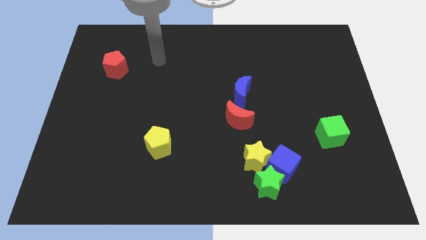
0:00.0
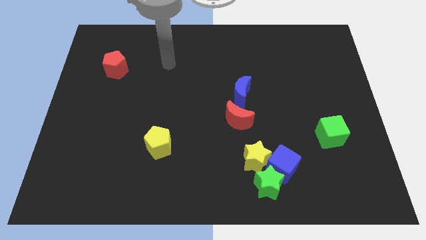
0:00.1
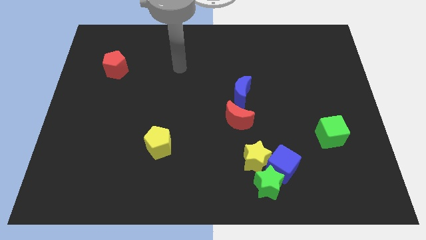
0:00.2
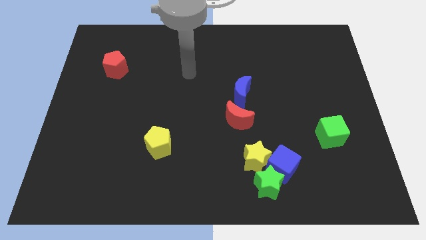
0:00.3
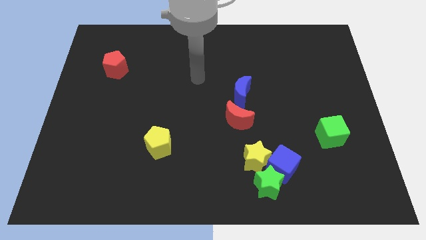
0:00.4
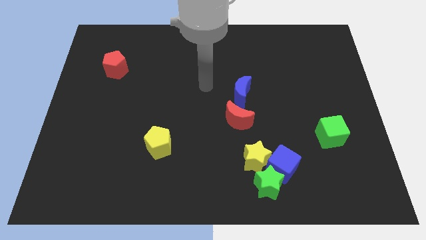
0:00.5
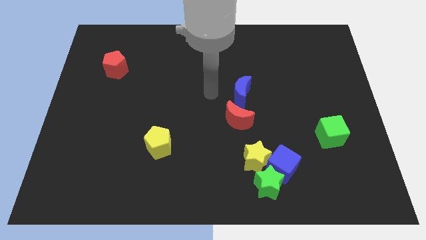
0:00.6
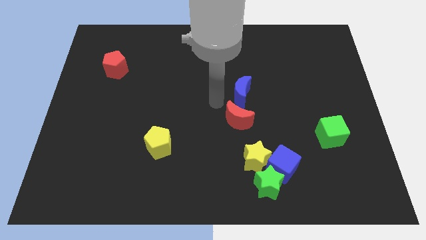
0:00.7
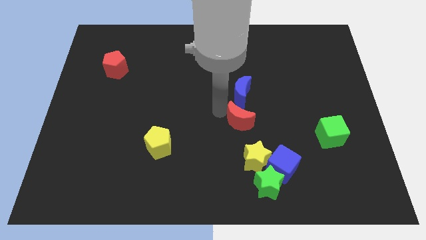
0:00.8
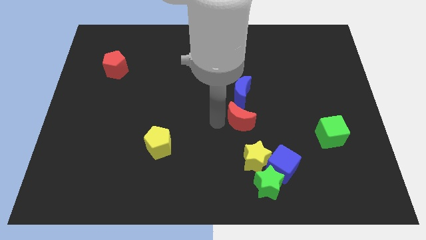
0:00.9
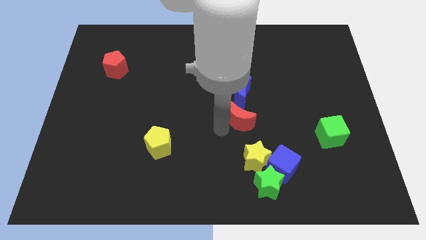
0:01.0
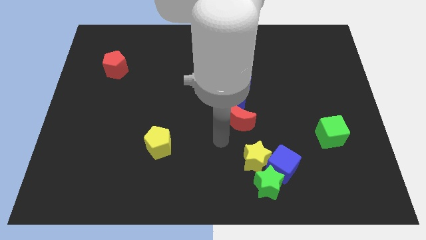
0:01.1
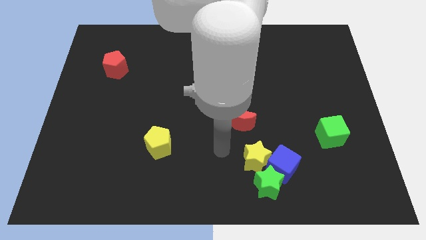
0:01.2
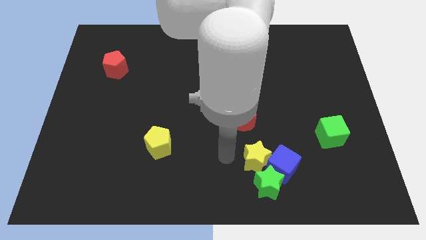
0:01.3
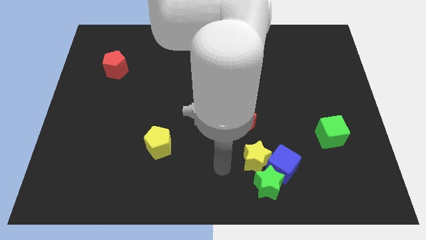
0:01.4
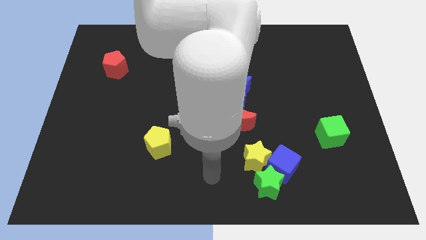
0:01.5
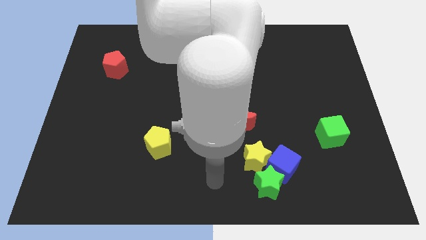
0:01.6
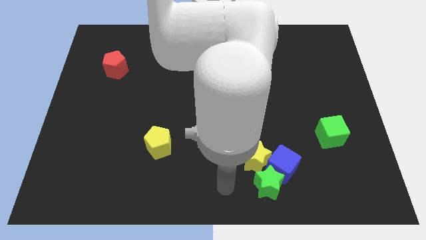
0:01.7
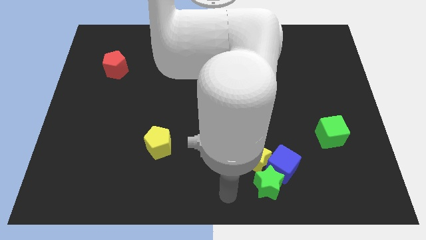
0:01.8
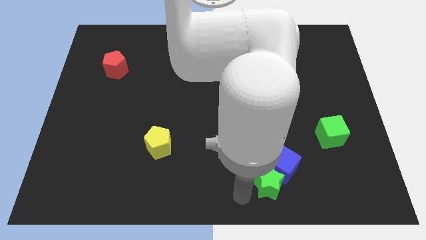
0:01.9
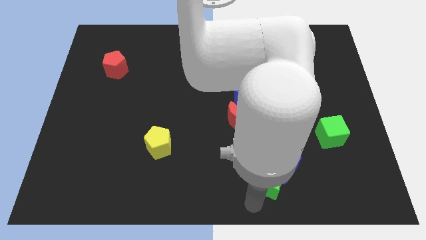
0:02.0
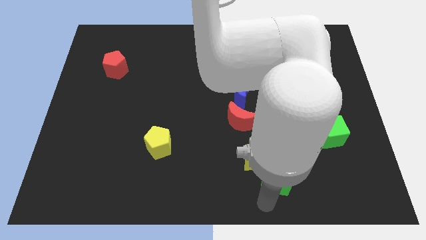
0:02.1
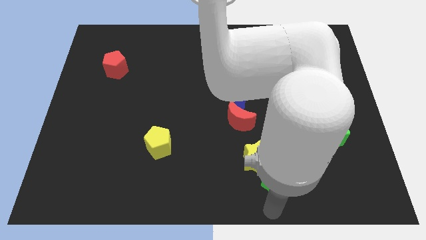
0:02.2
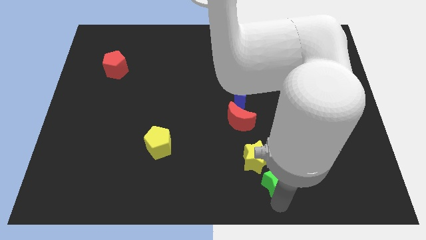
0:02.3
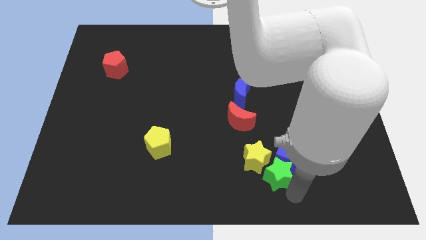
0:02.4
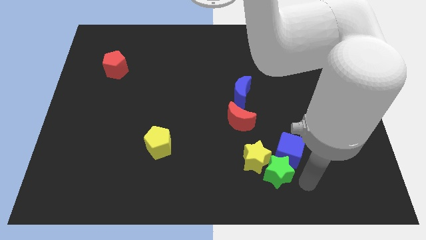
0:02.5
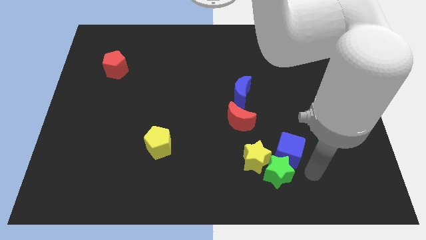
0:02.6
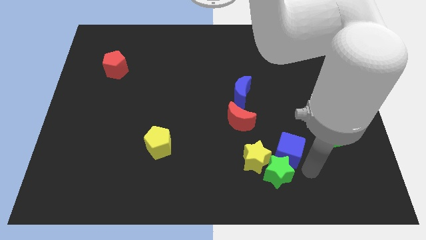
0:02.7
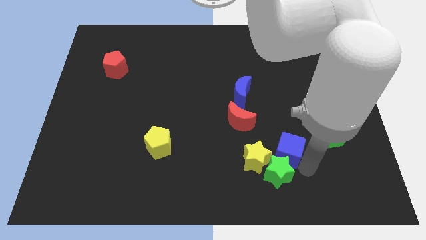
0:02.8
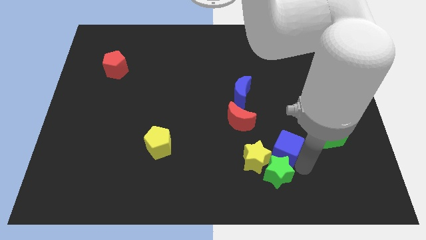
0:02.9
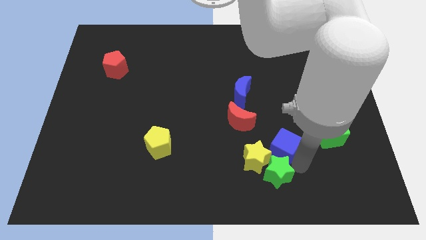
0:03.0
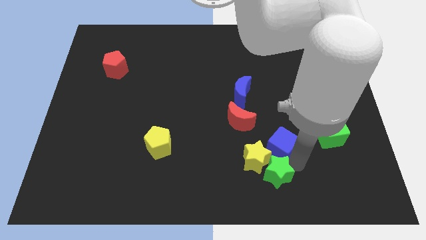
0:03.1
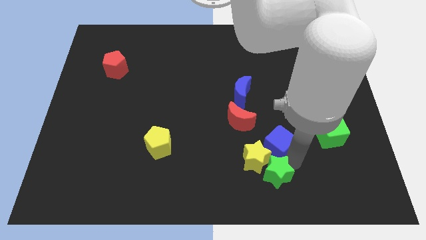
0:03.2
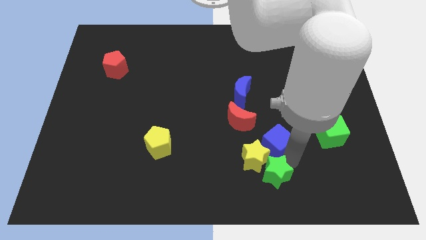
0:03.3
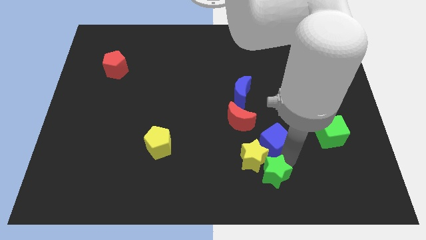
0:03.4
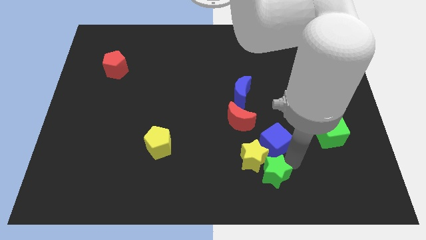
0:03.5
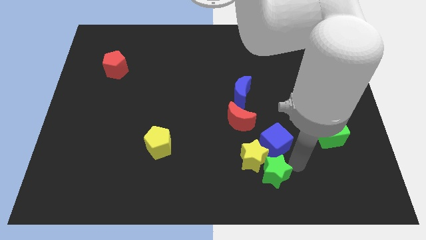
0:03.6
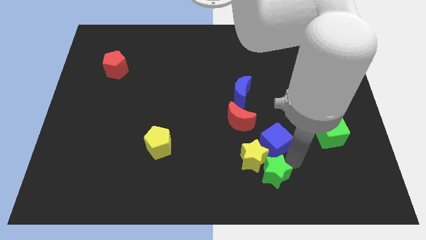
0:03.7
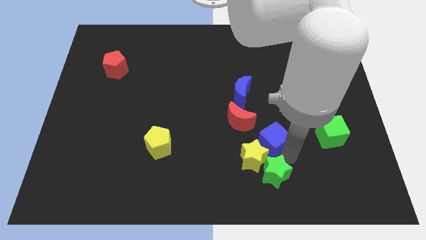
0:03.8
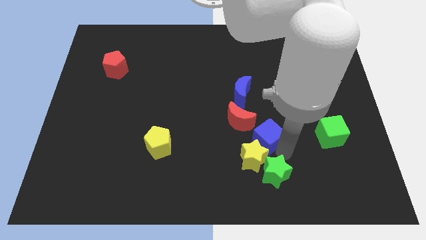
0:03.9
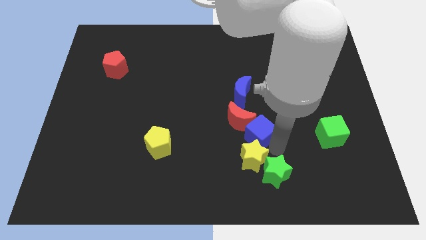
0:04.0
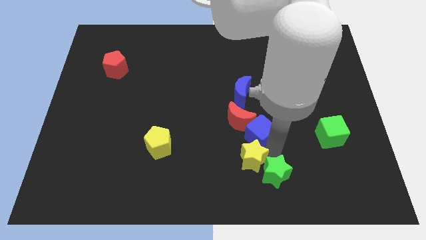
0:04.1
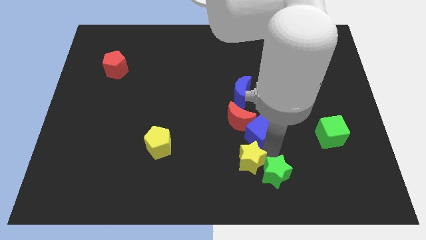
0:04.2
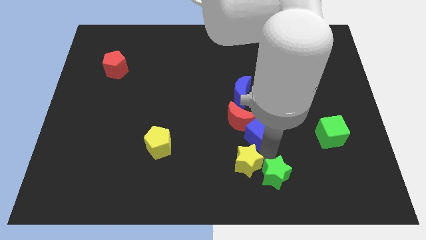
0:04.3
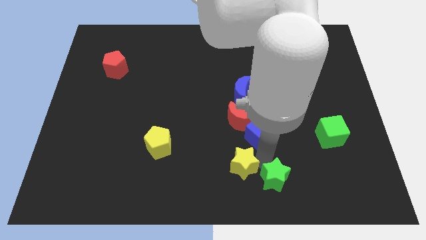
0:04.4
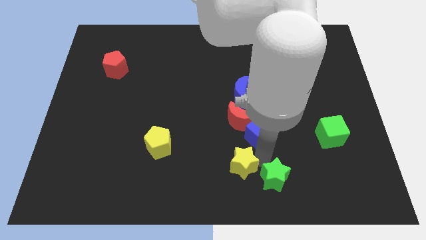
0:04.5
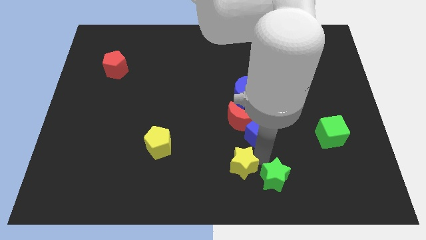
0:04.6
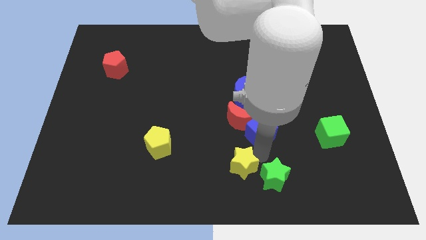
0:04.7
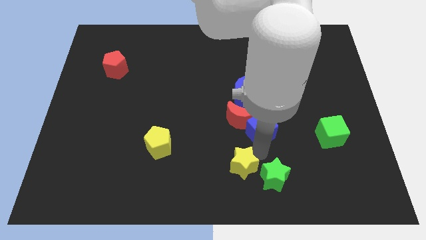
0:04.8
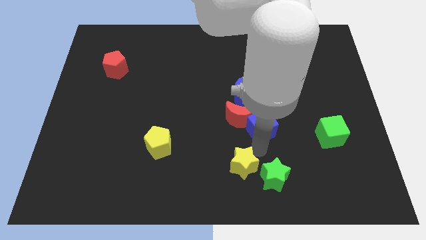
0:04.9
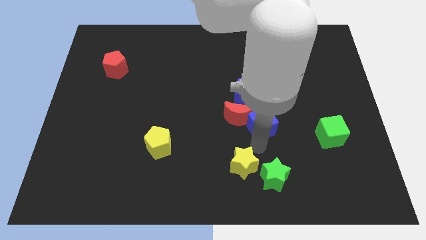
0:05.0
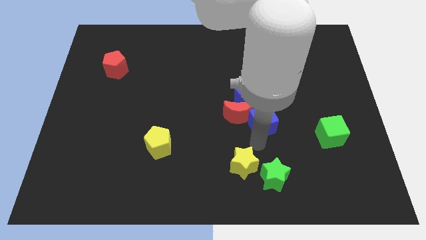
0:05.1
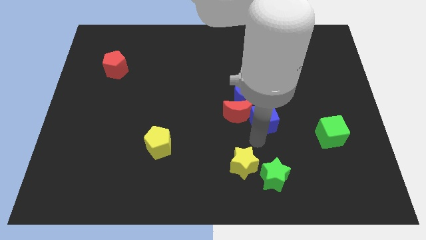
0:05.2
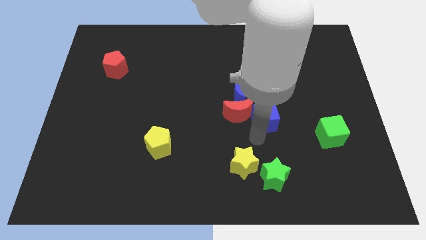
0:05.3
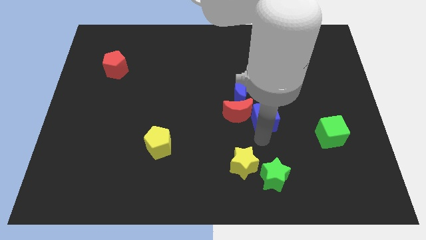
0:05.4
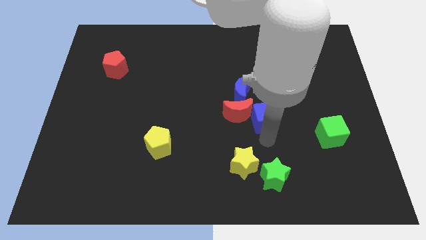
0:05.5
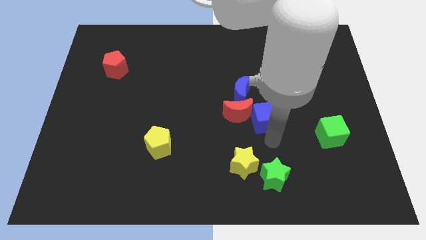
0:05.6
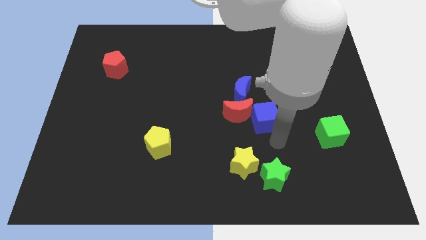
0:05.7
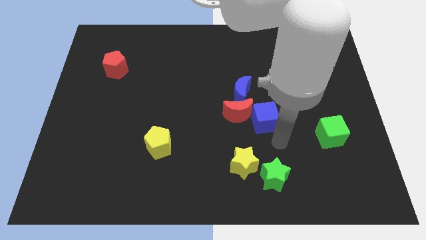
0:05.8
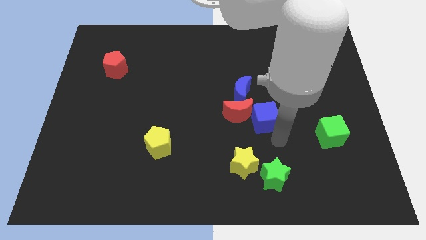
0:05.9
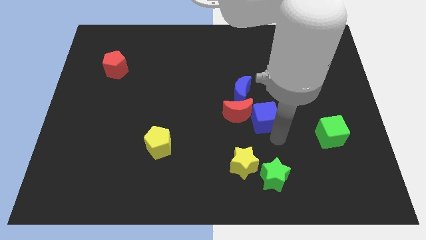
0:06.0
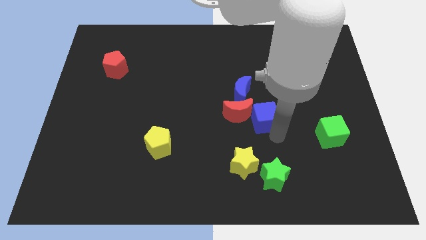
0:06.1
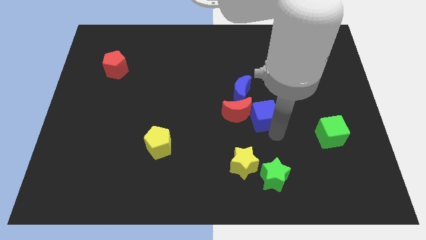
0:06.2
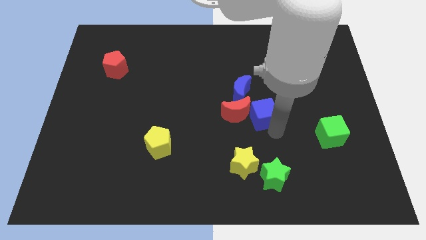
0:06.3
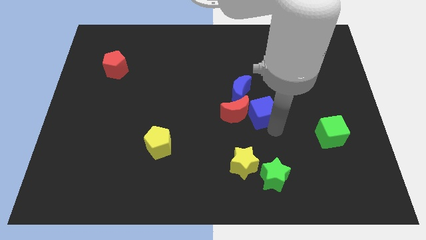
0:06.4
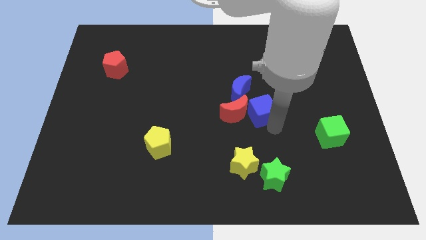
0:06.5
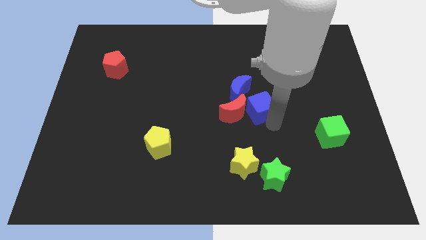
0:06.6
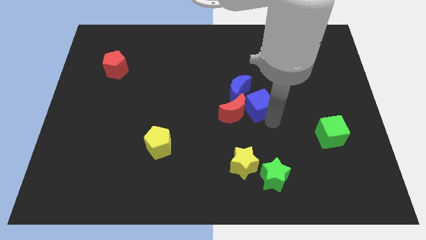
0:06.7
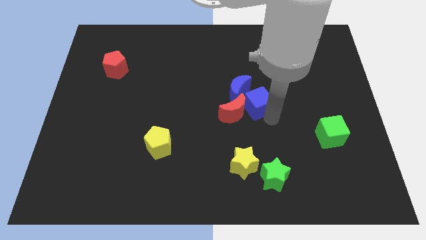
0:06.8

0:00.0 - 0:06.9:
move the blue cube to the blue moon

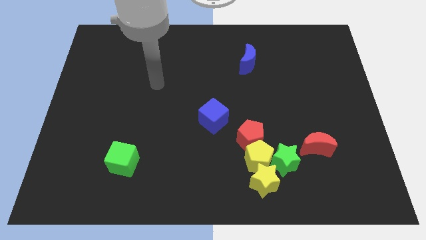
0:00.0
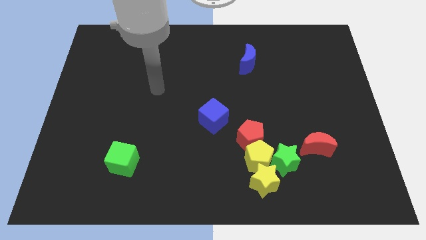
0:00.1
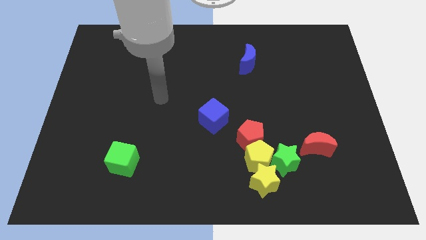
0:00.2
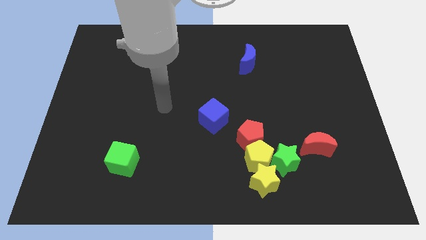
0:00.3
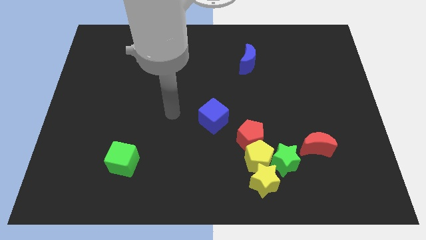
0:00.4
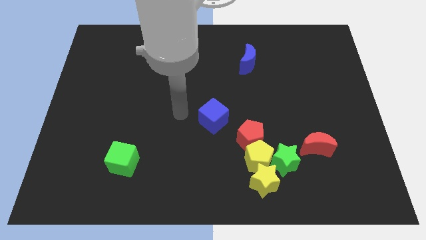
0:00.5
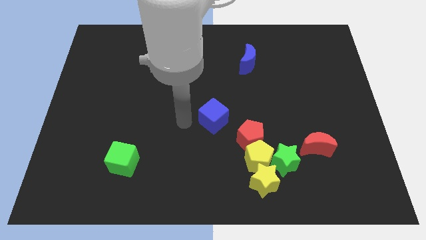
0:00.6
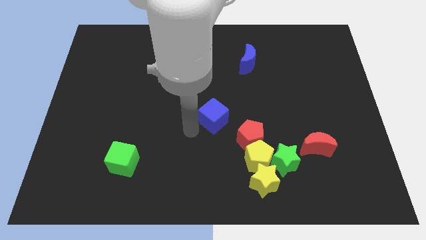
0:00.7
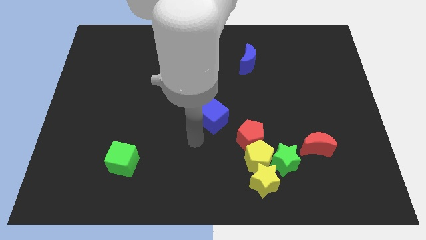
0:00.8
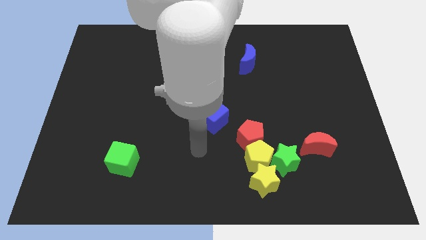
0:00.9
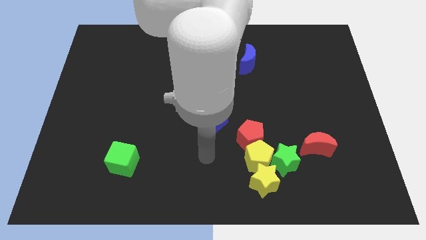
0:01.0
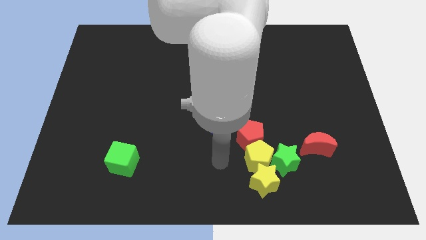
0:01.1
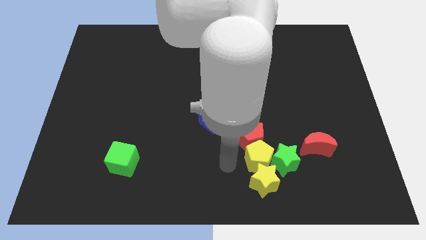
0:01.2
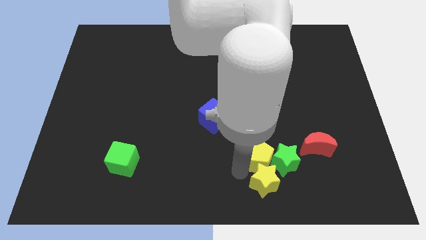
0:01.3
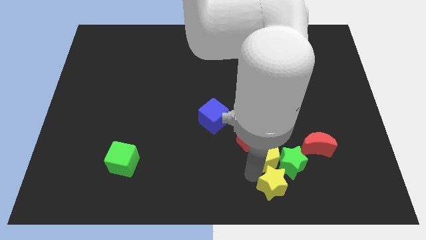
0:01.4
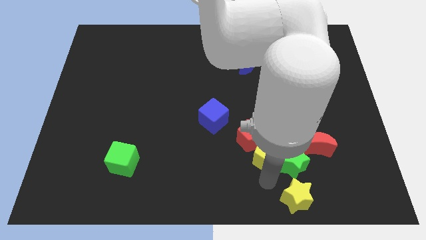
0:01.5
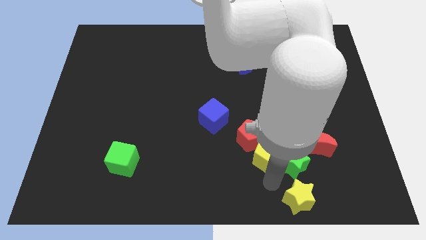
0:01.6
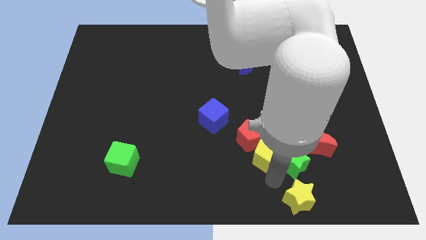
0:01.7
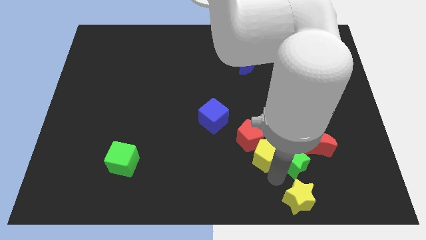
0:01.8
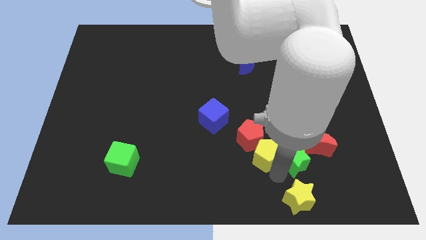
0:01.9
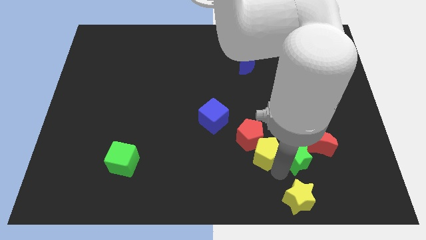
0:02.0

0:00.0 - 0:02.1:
move the green star next to the red moon
